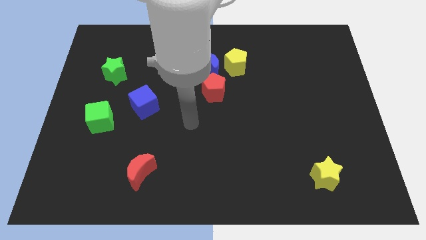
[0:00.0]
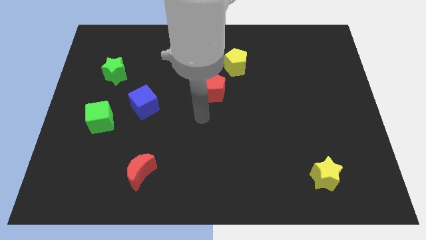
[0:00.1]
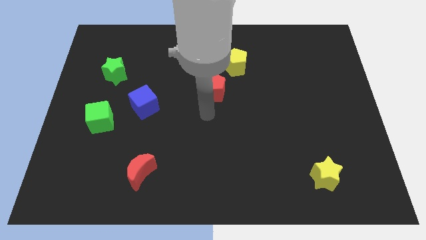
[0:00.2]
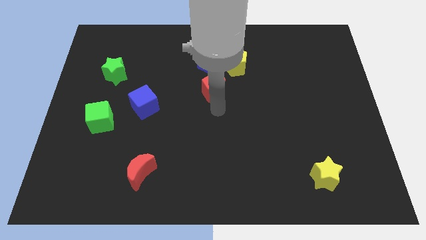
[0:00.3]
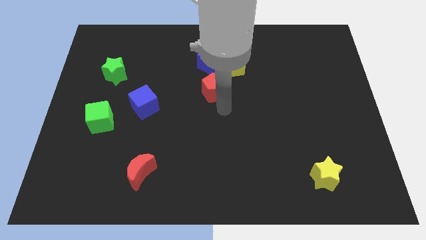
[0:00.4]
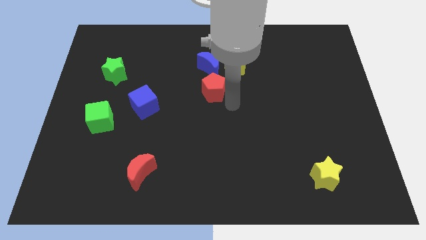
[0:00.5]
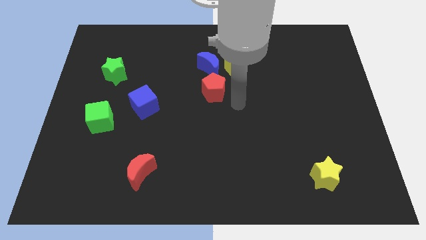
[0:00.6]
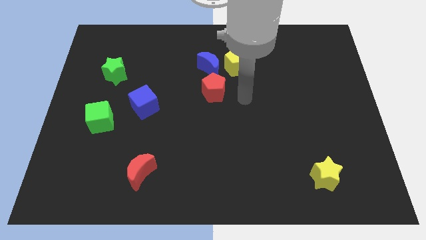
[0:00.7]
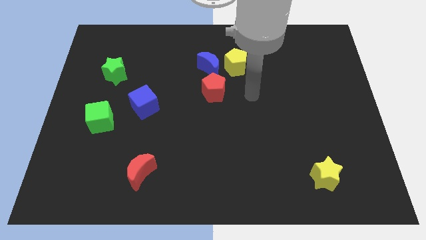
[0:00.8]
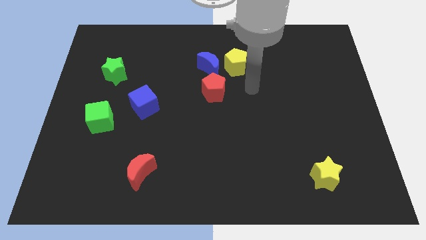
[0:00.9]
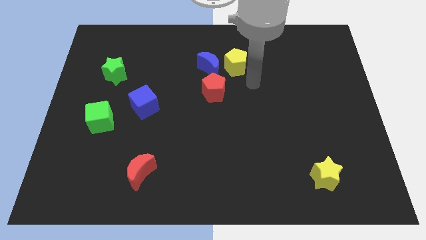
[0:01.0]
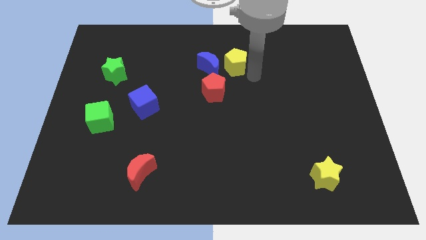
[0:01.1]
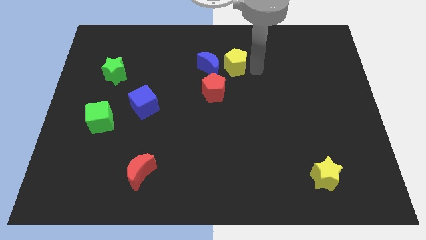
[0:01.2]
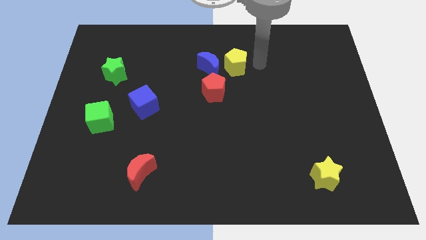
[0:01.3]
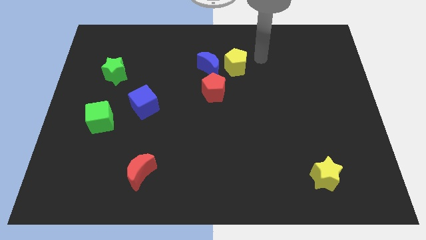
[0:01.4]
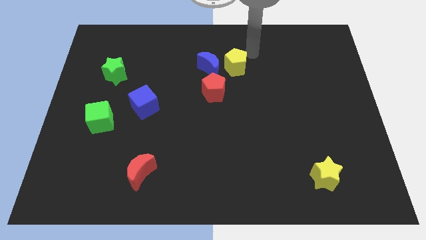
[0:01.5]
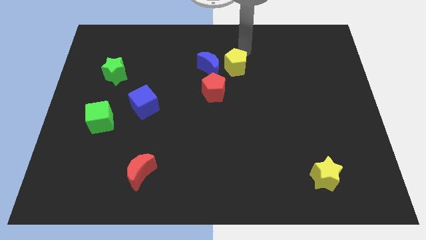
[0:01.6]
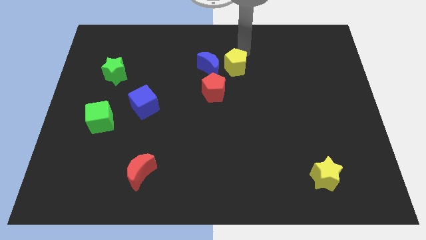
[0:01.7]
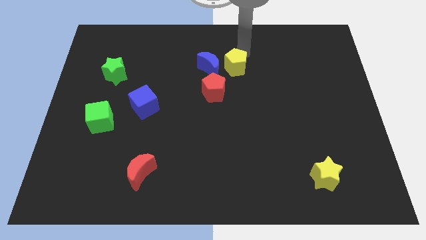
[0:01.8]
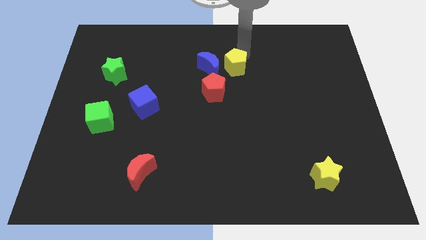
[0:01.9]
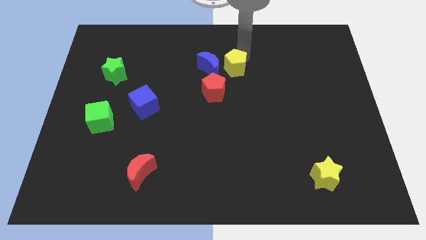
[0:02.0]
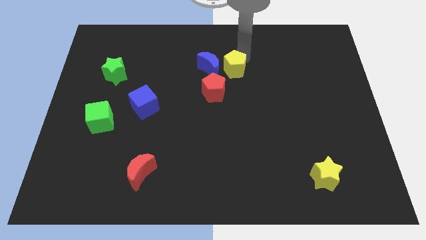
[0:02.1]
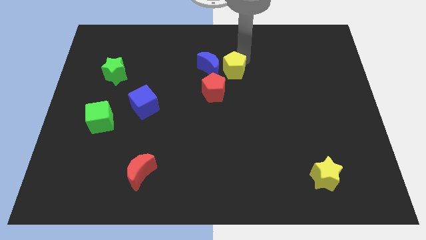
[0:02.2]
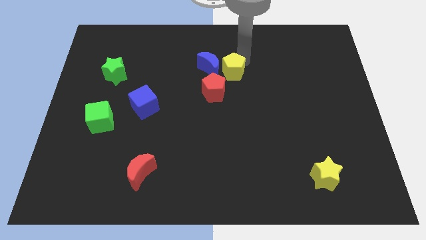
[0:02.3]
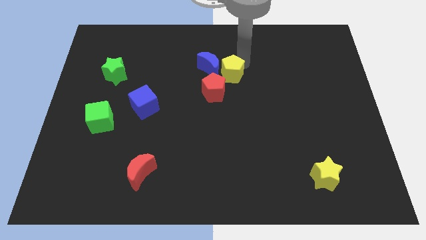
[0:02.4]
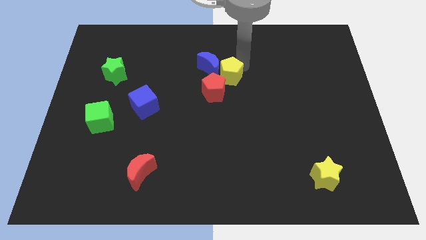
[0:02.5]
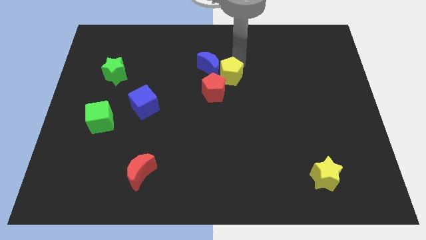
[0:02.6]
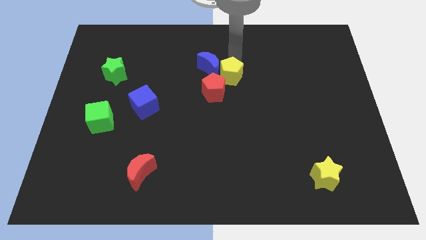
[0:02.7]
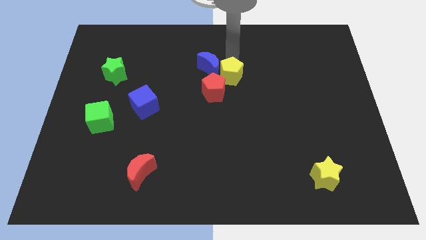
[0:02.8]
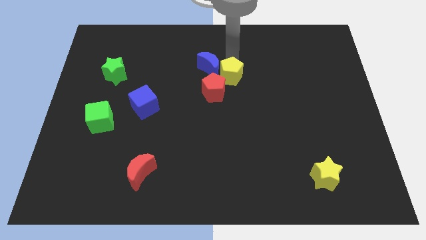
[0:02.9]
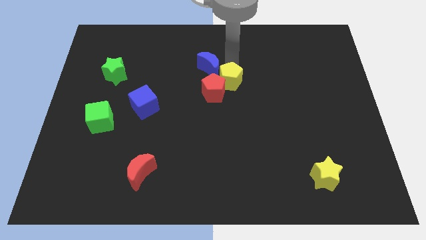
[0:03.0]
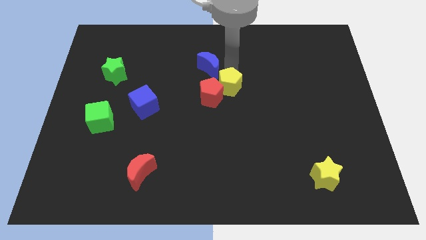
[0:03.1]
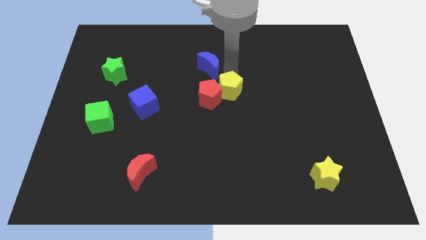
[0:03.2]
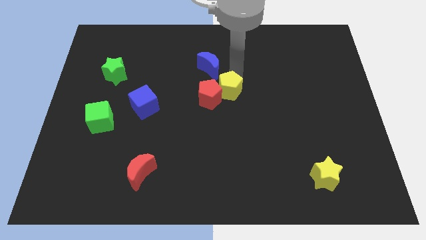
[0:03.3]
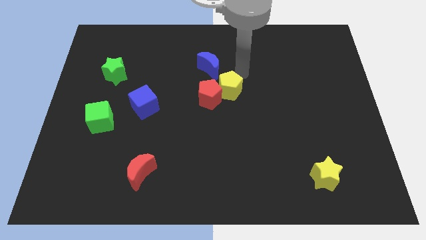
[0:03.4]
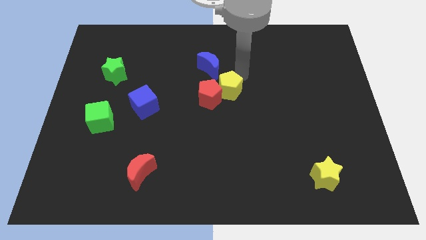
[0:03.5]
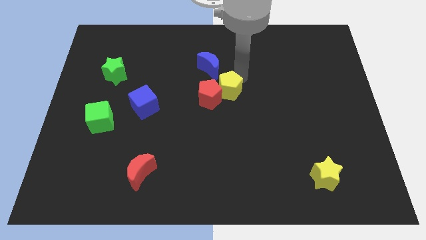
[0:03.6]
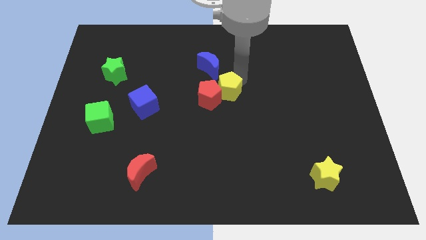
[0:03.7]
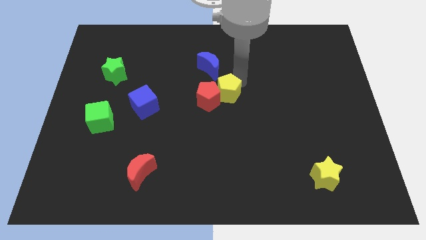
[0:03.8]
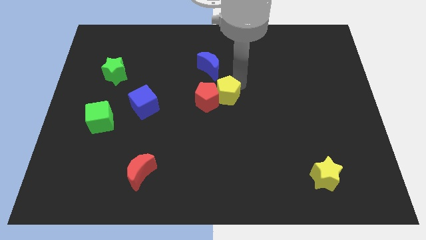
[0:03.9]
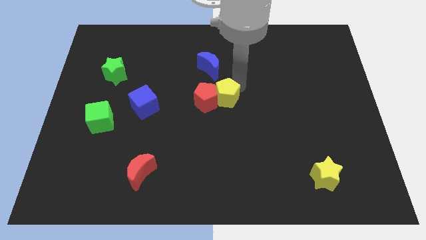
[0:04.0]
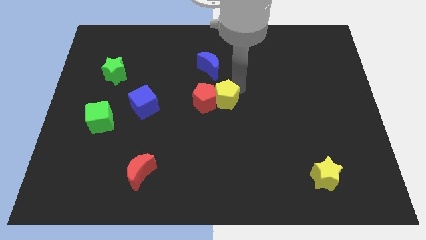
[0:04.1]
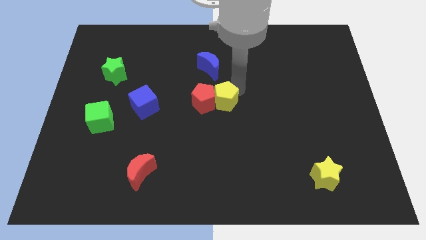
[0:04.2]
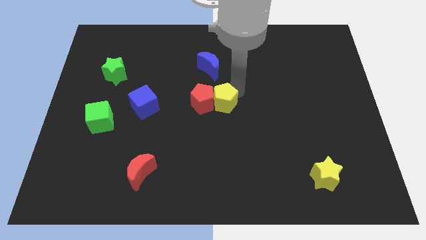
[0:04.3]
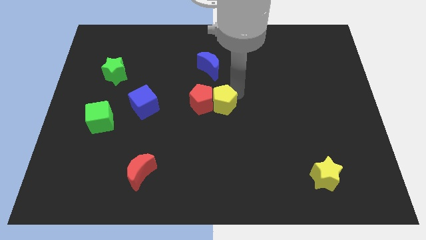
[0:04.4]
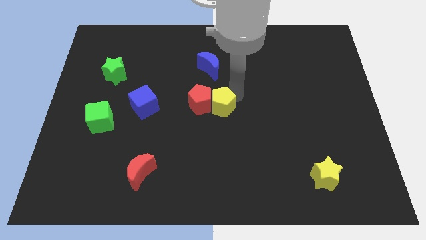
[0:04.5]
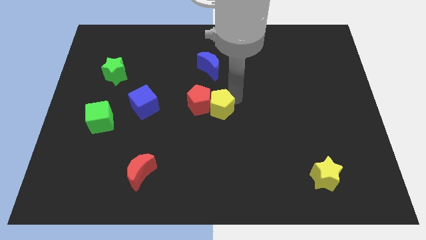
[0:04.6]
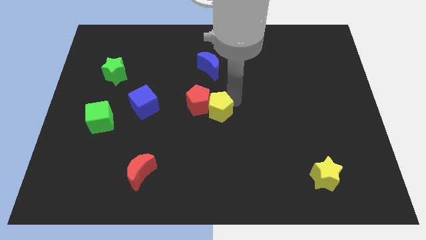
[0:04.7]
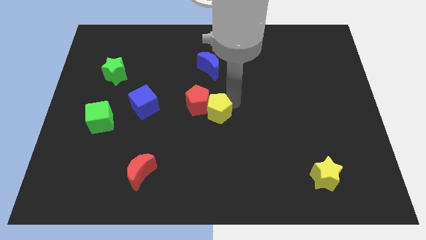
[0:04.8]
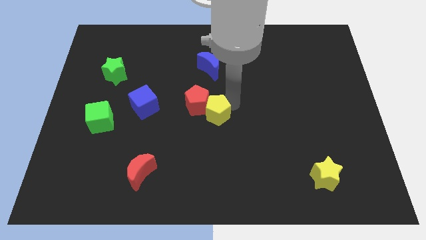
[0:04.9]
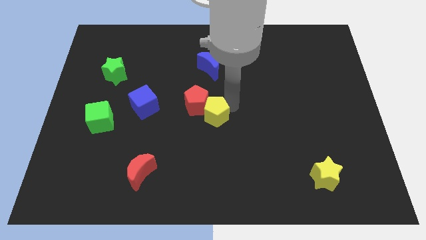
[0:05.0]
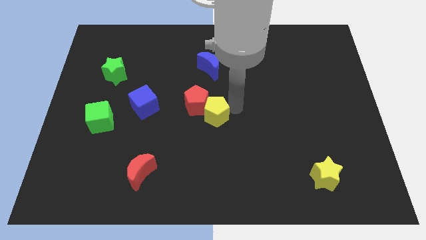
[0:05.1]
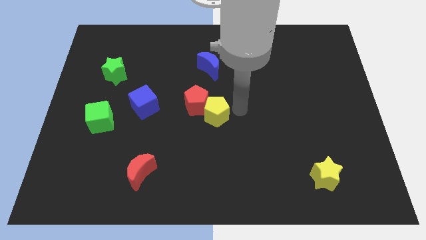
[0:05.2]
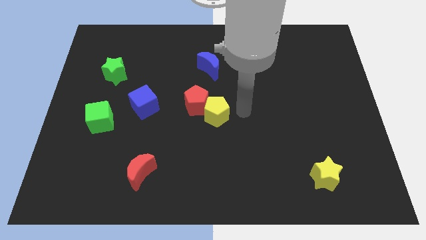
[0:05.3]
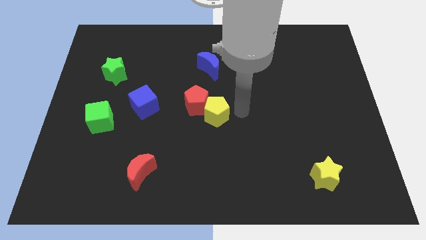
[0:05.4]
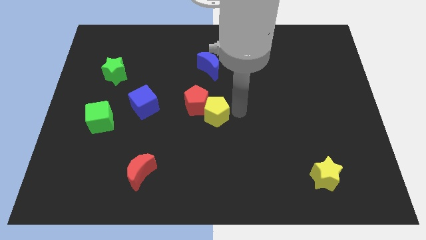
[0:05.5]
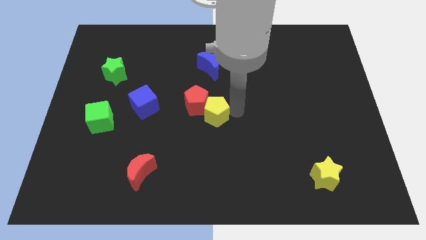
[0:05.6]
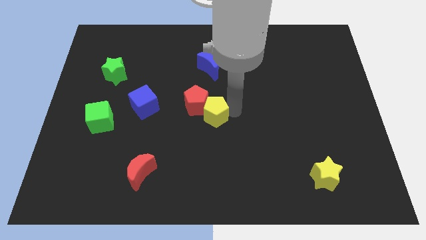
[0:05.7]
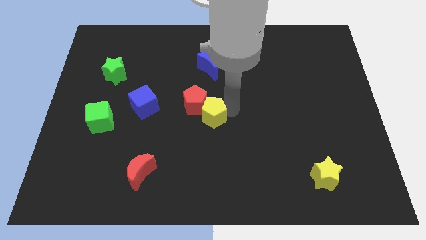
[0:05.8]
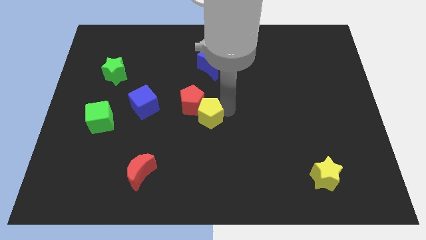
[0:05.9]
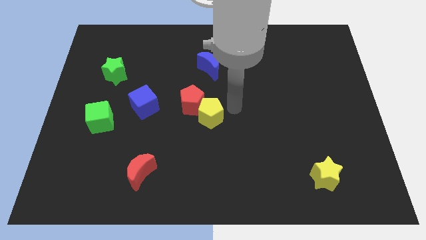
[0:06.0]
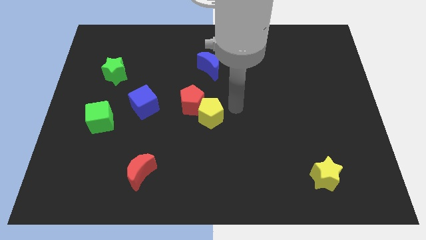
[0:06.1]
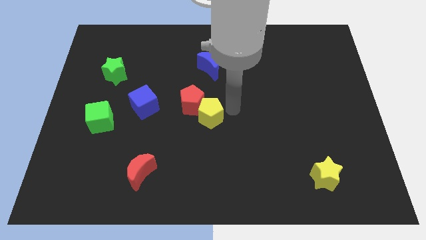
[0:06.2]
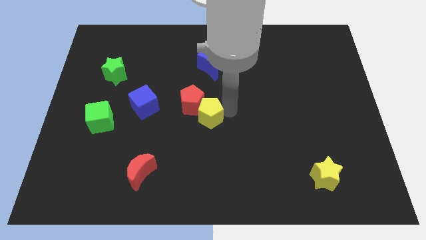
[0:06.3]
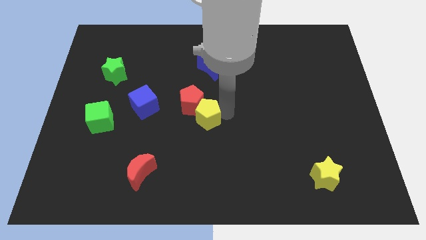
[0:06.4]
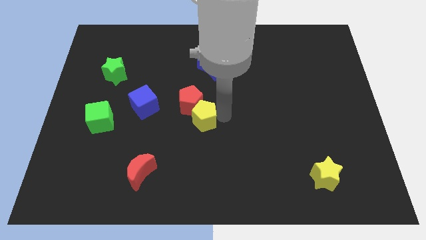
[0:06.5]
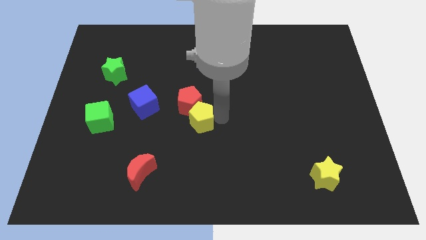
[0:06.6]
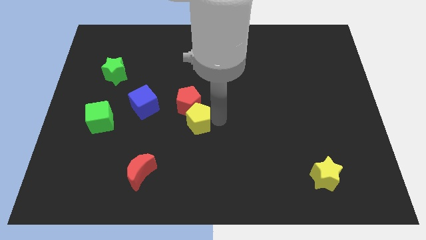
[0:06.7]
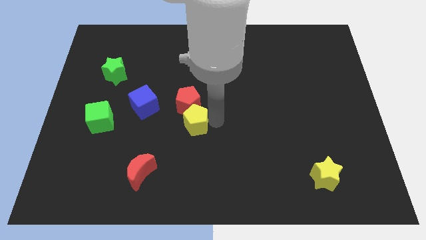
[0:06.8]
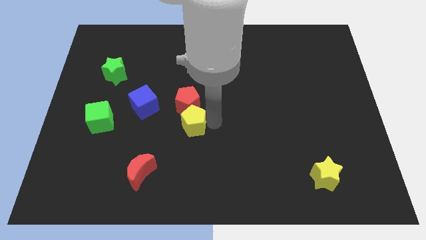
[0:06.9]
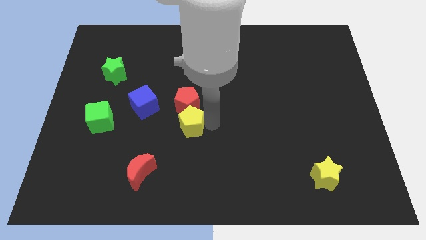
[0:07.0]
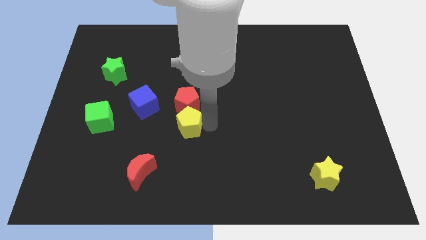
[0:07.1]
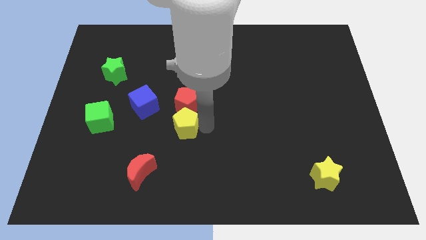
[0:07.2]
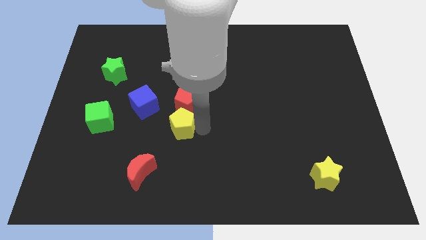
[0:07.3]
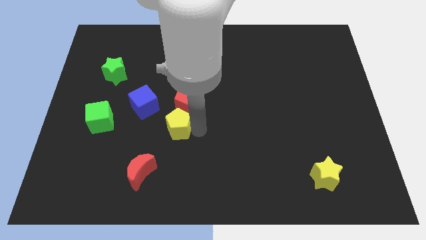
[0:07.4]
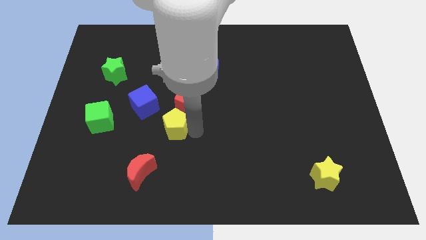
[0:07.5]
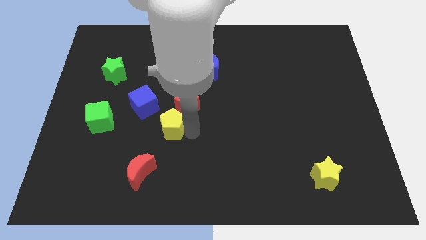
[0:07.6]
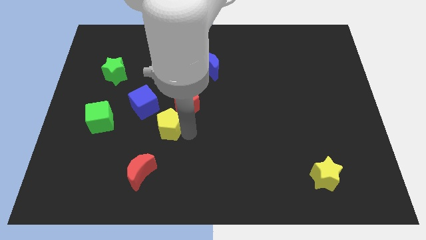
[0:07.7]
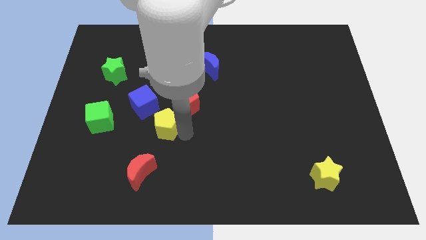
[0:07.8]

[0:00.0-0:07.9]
move the yellow pentagon above the red moon
